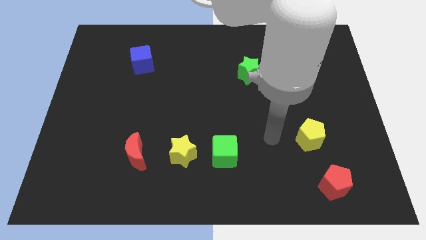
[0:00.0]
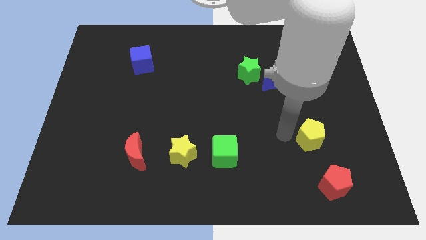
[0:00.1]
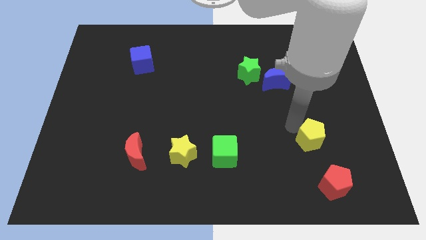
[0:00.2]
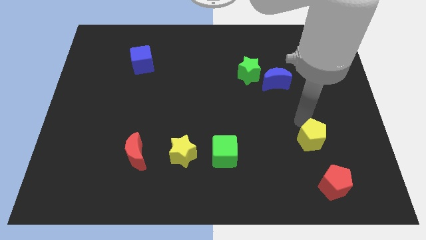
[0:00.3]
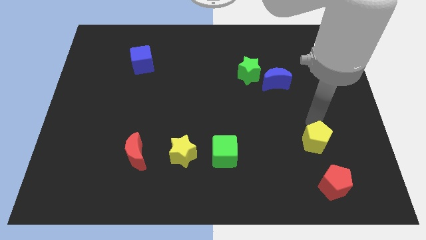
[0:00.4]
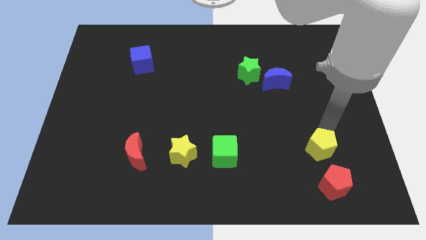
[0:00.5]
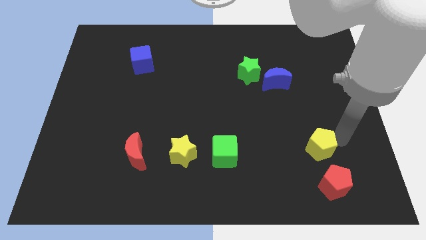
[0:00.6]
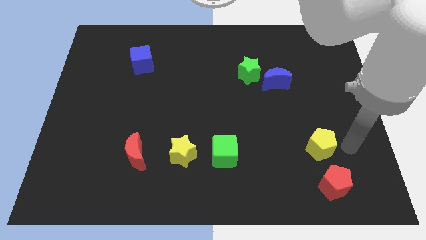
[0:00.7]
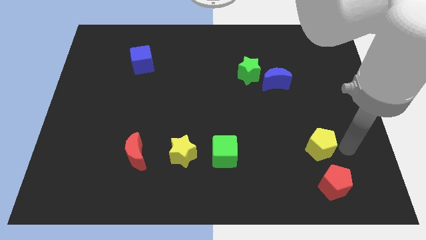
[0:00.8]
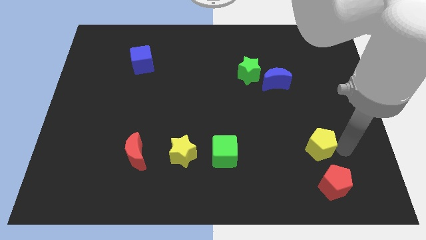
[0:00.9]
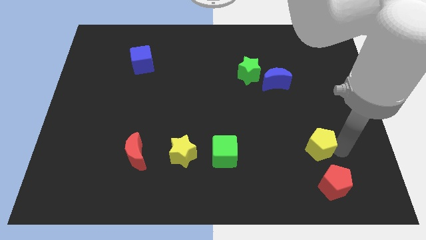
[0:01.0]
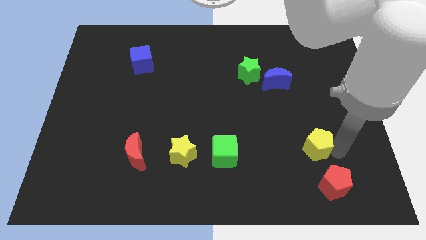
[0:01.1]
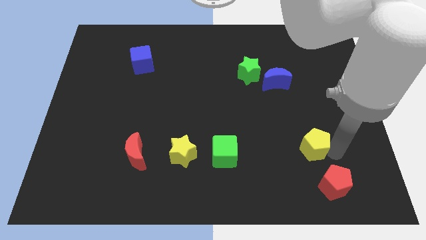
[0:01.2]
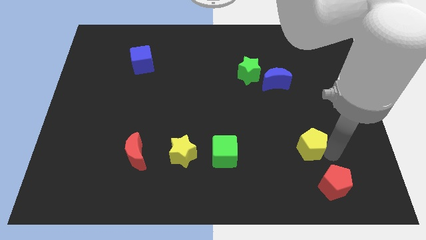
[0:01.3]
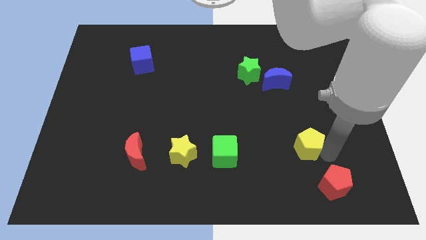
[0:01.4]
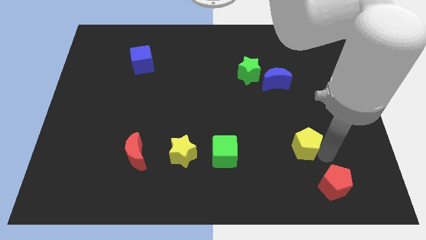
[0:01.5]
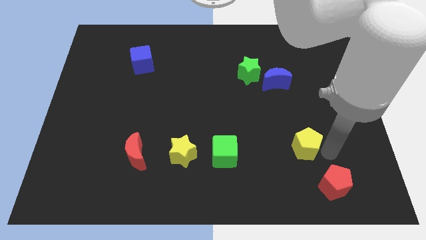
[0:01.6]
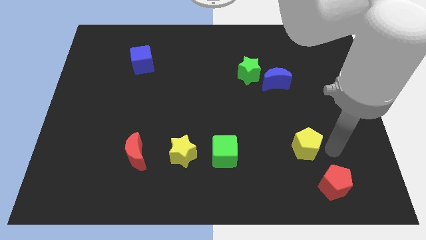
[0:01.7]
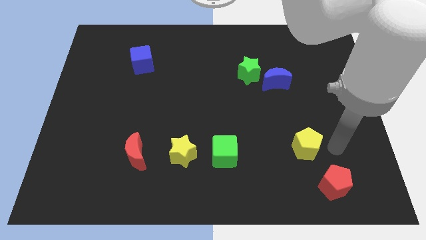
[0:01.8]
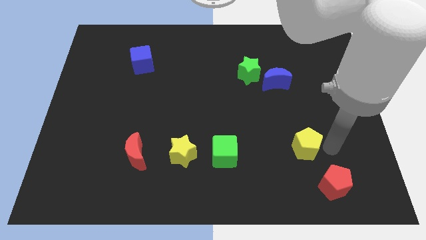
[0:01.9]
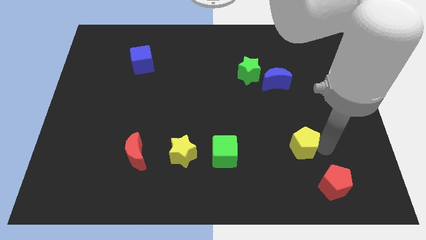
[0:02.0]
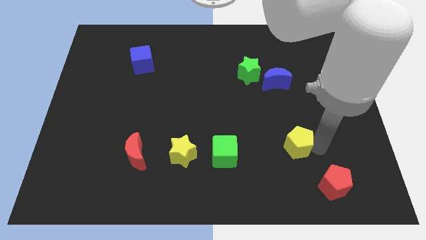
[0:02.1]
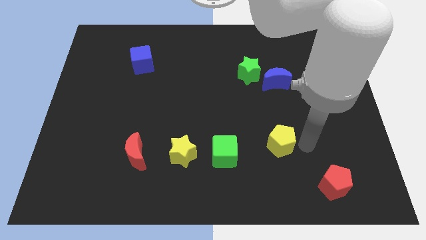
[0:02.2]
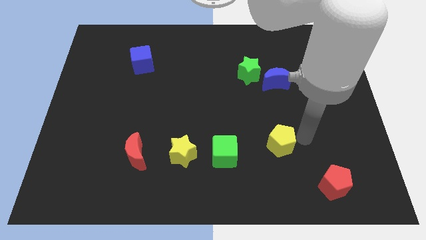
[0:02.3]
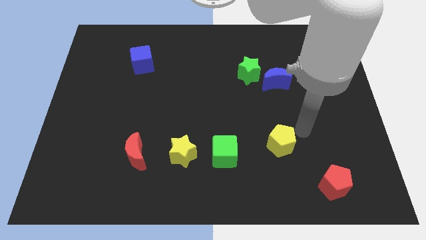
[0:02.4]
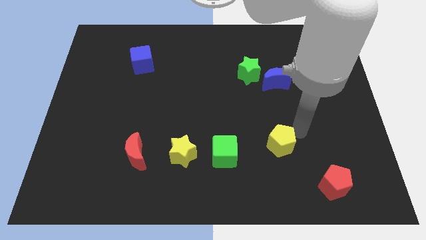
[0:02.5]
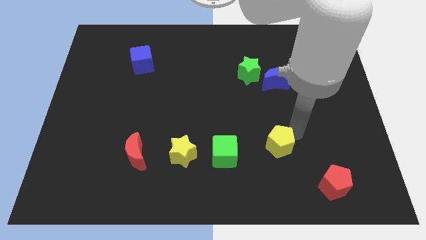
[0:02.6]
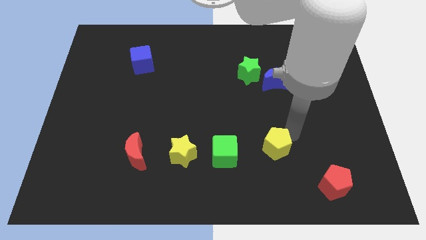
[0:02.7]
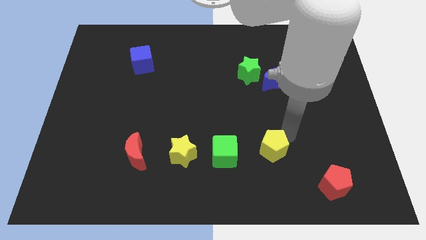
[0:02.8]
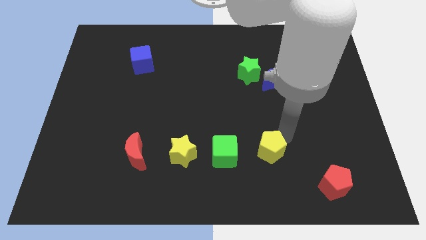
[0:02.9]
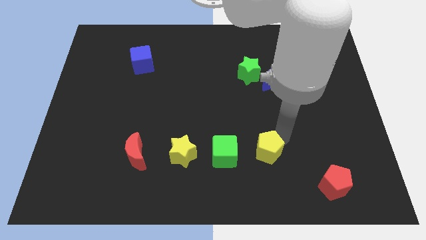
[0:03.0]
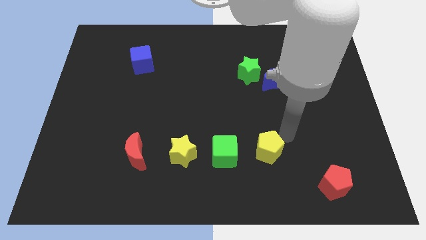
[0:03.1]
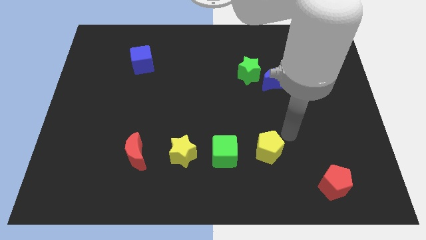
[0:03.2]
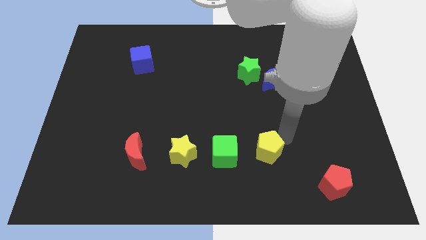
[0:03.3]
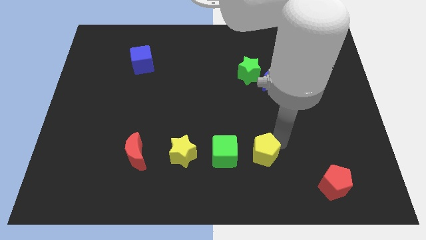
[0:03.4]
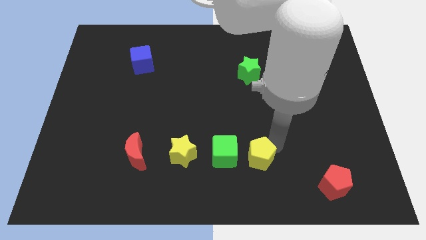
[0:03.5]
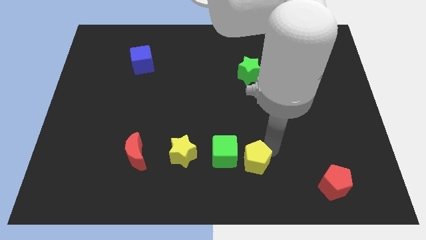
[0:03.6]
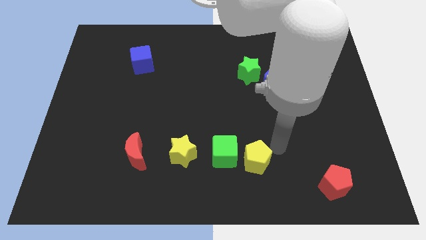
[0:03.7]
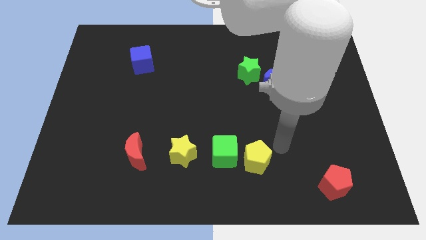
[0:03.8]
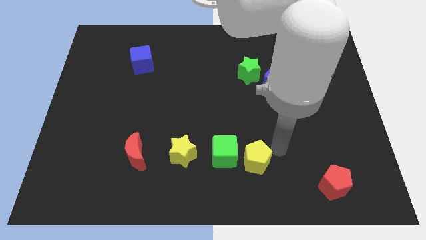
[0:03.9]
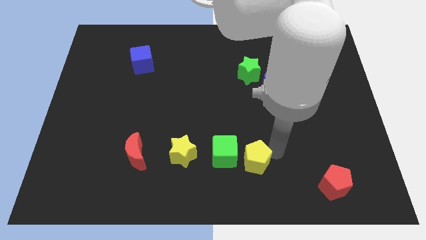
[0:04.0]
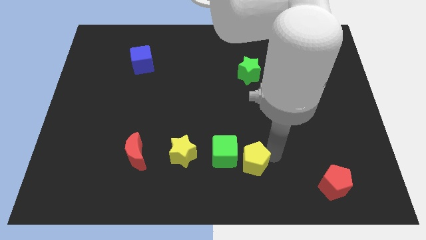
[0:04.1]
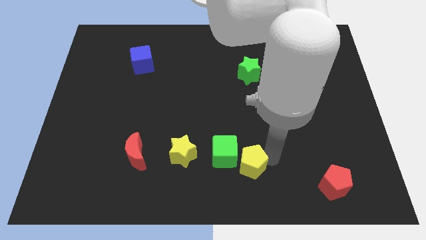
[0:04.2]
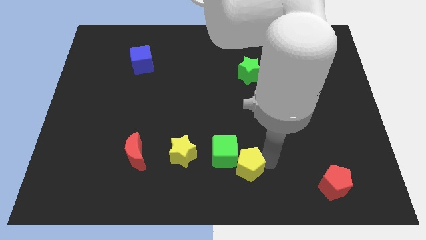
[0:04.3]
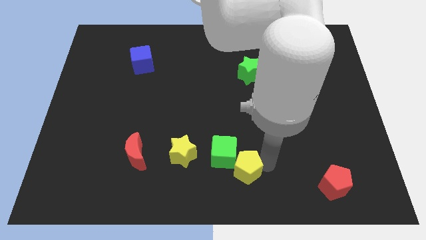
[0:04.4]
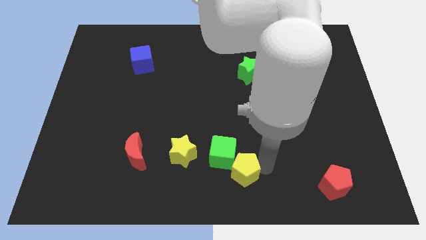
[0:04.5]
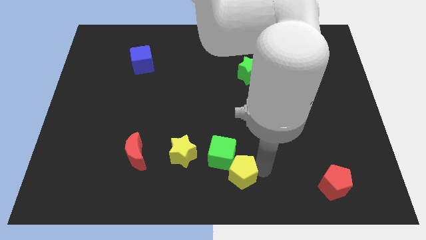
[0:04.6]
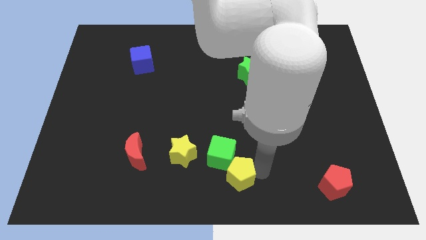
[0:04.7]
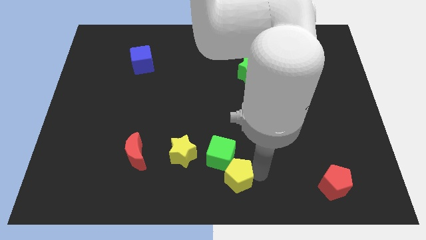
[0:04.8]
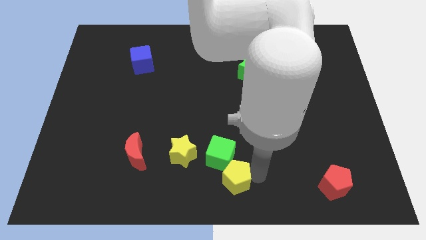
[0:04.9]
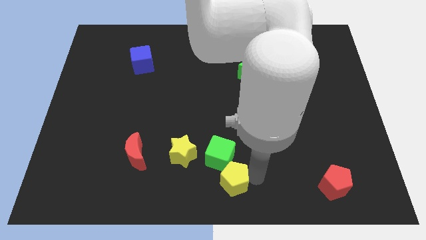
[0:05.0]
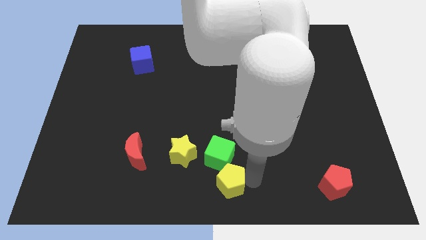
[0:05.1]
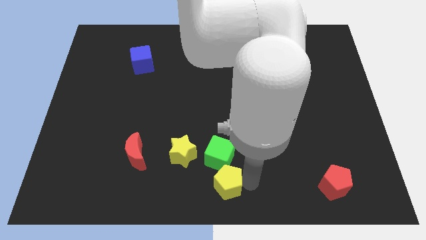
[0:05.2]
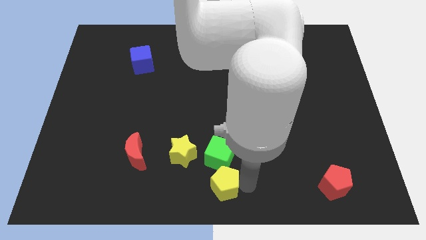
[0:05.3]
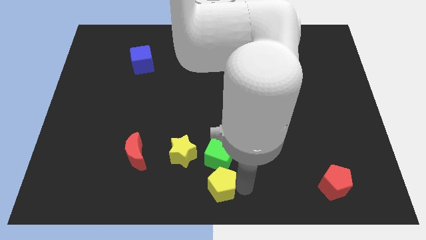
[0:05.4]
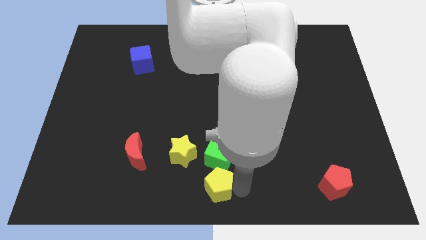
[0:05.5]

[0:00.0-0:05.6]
put the yellow pentagon to the bottom left side of the green cube

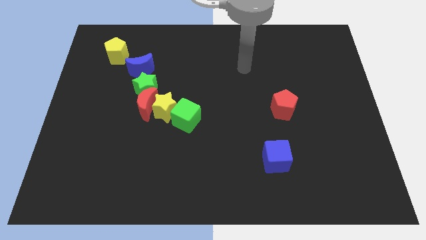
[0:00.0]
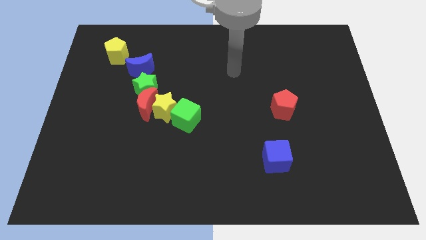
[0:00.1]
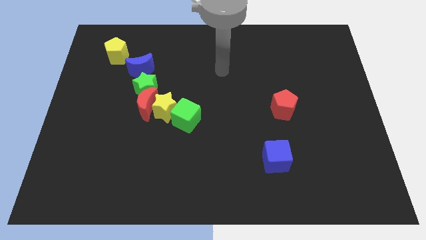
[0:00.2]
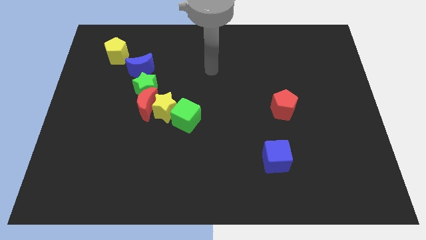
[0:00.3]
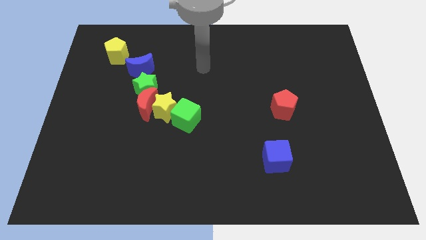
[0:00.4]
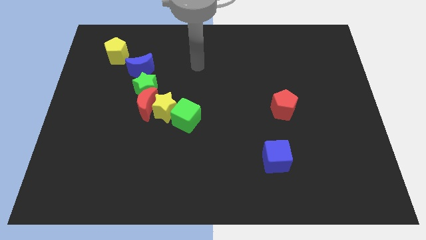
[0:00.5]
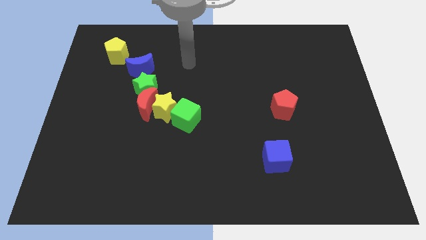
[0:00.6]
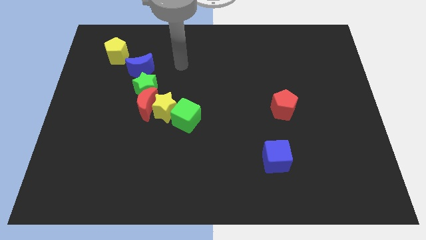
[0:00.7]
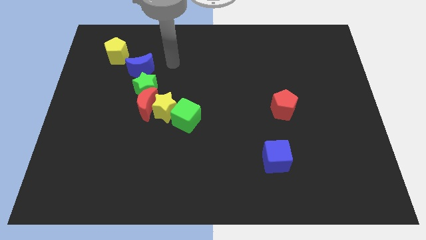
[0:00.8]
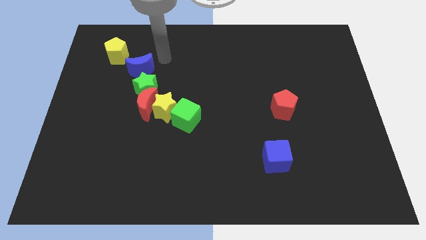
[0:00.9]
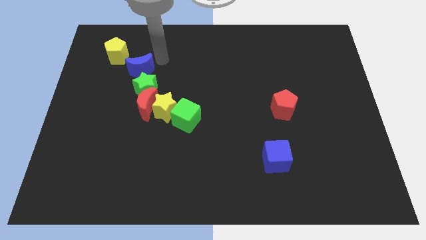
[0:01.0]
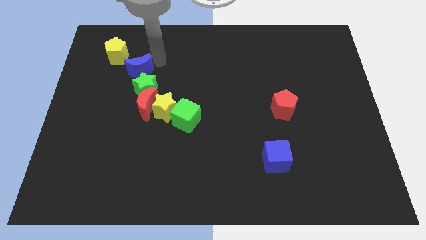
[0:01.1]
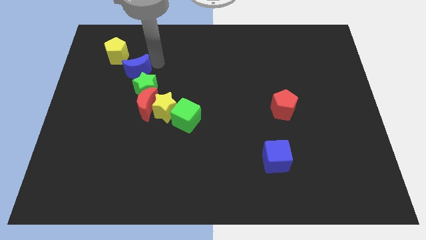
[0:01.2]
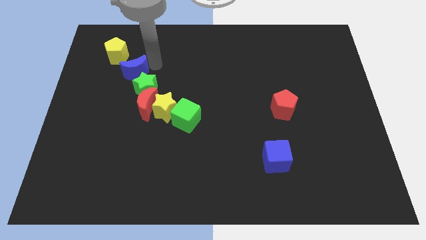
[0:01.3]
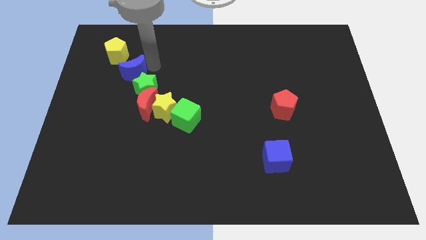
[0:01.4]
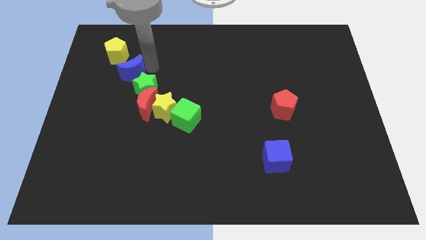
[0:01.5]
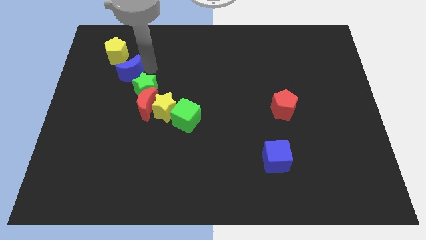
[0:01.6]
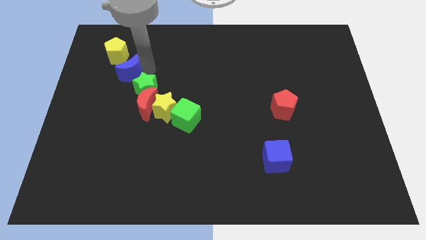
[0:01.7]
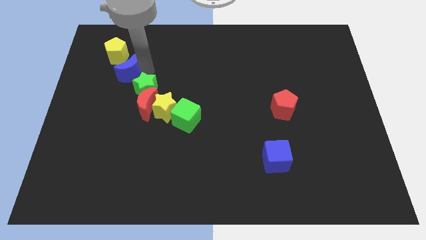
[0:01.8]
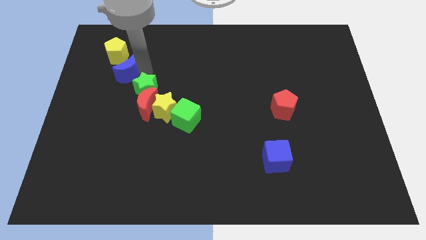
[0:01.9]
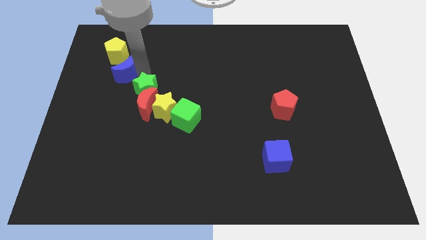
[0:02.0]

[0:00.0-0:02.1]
put the blue moon to the left side of the green star
